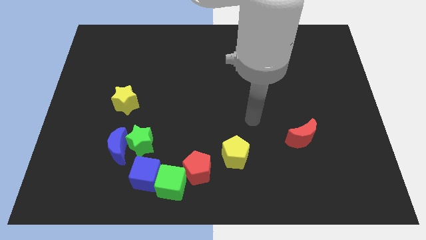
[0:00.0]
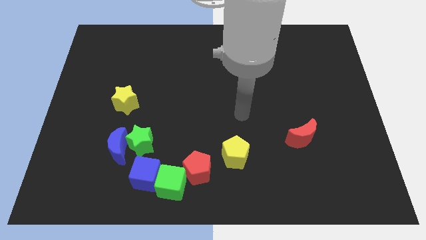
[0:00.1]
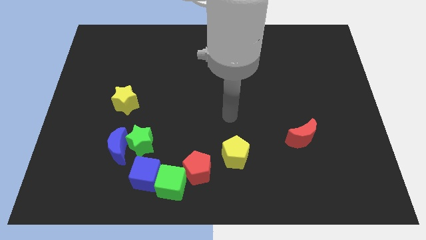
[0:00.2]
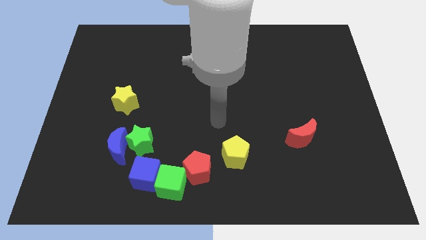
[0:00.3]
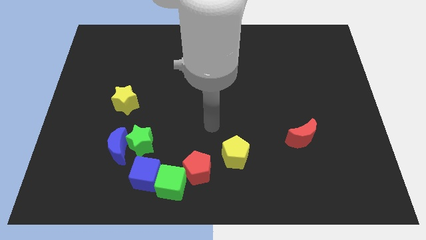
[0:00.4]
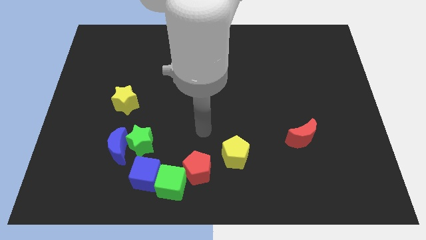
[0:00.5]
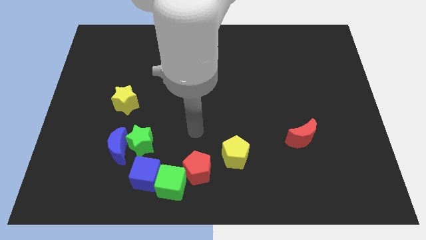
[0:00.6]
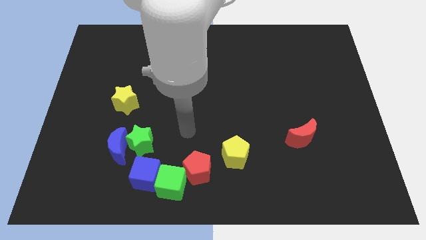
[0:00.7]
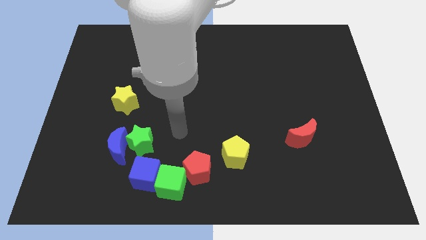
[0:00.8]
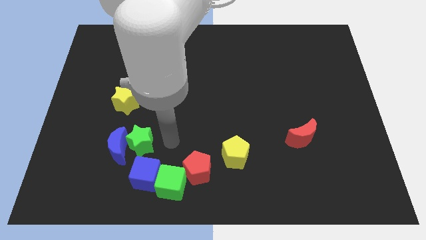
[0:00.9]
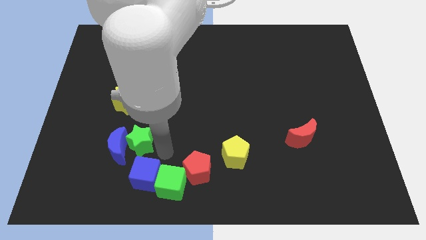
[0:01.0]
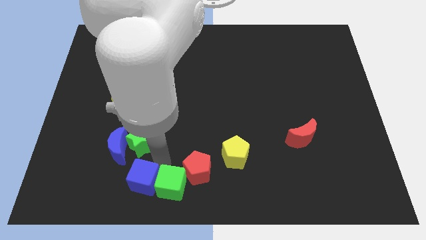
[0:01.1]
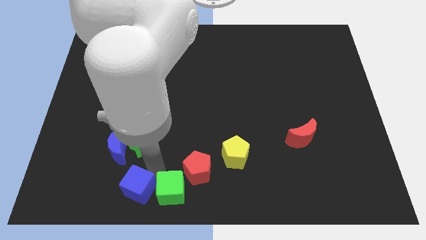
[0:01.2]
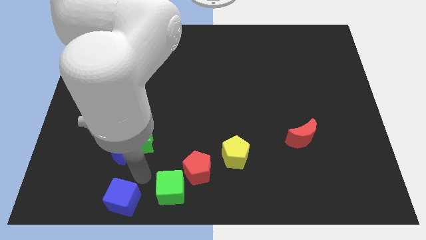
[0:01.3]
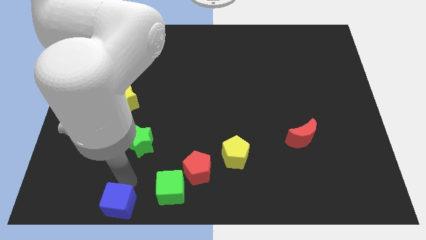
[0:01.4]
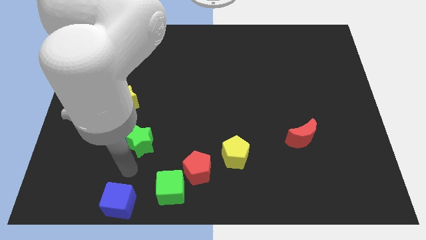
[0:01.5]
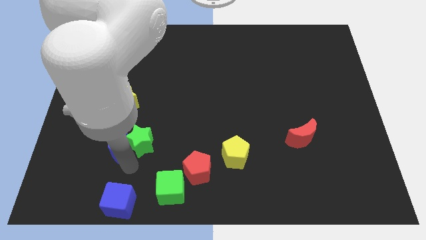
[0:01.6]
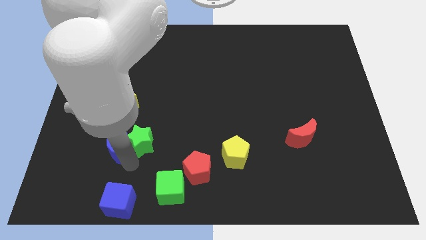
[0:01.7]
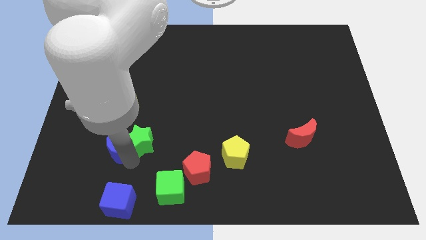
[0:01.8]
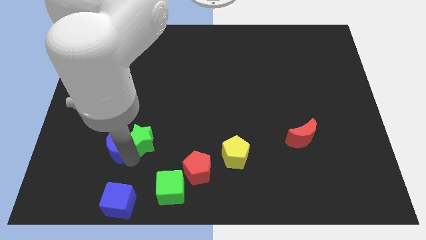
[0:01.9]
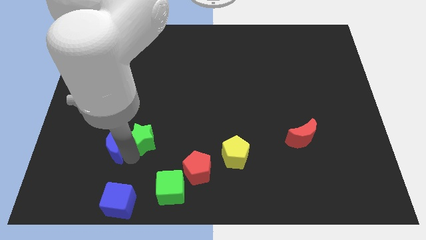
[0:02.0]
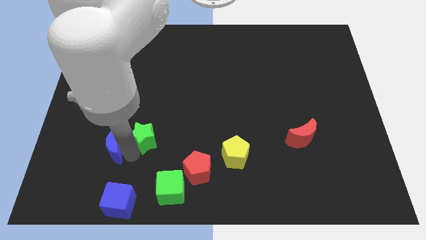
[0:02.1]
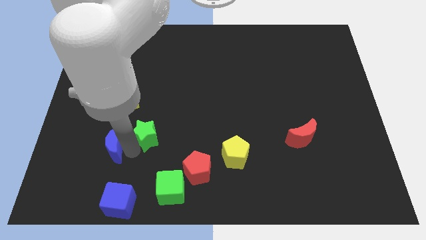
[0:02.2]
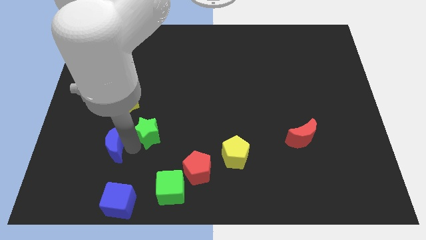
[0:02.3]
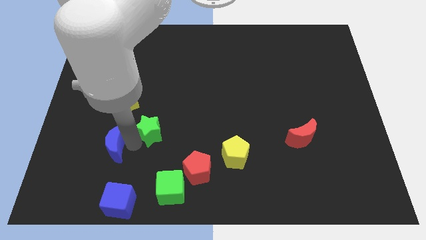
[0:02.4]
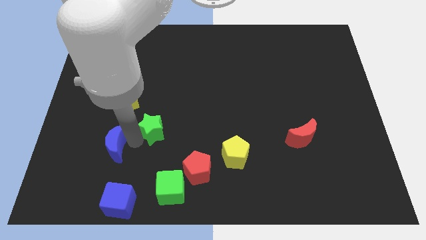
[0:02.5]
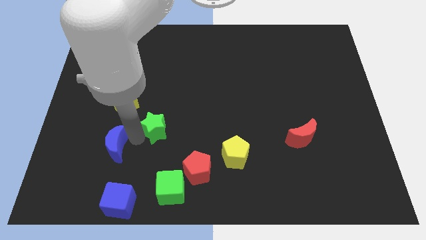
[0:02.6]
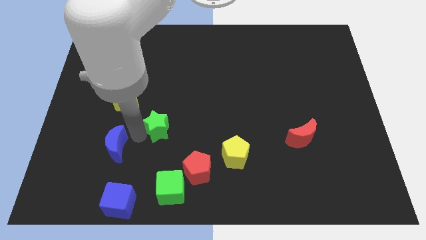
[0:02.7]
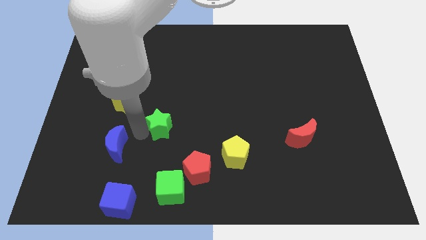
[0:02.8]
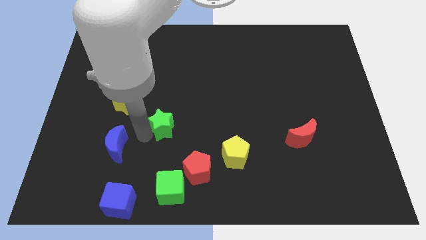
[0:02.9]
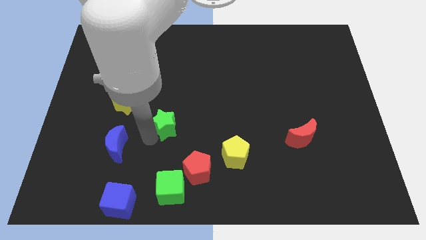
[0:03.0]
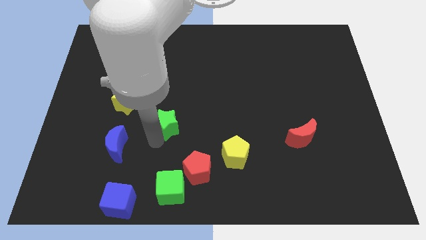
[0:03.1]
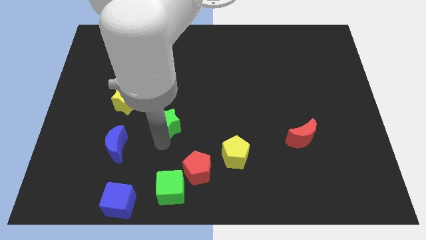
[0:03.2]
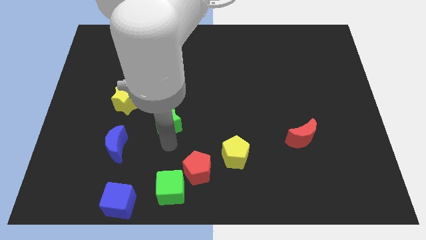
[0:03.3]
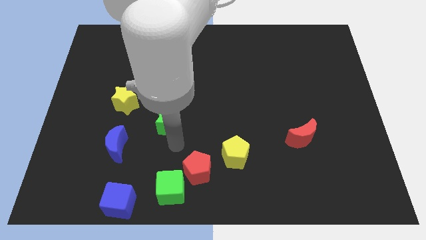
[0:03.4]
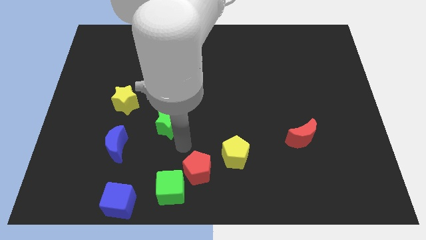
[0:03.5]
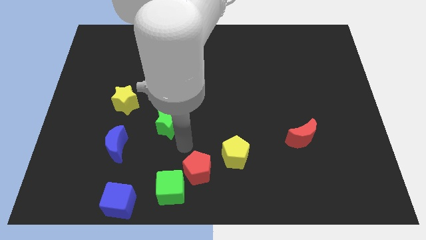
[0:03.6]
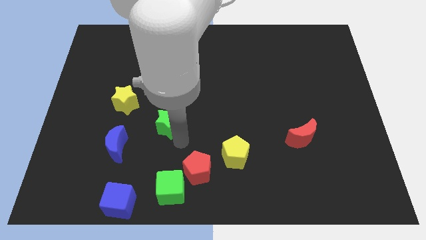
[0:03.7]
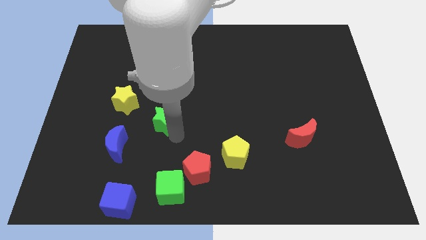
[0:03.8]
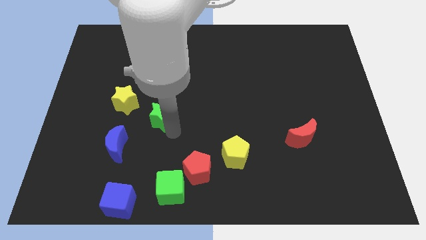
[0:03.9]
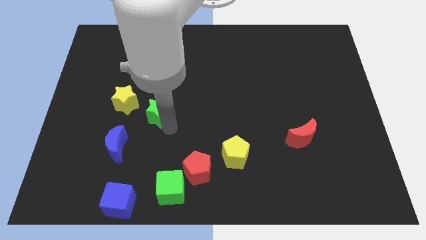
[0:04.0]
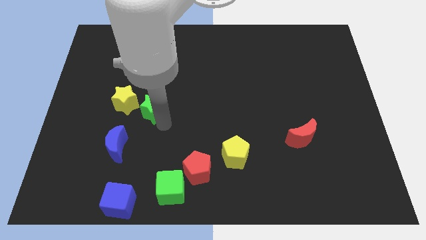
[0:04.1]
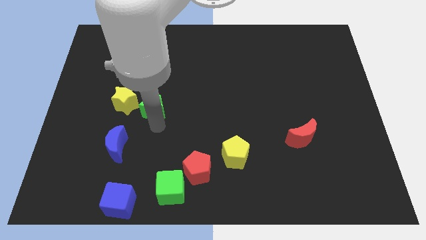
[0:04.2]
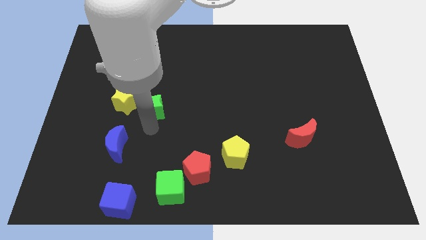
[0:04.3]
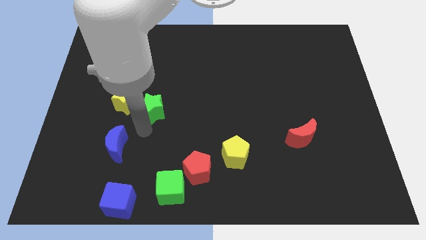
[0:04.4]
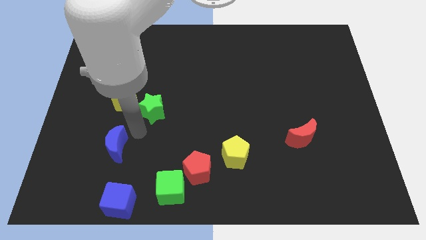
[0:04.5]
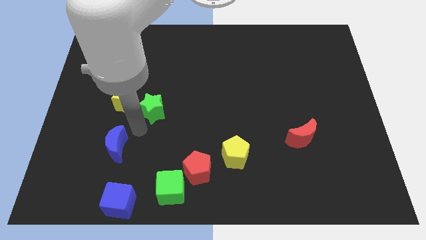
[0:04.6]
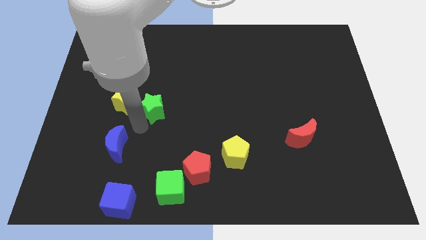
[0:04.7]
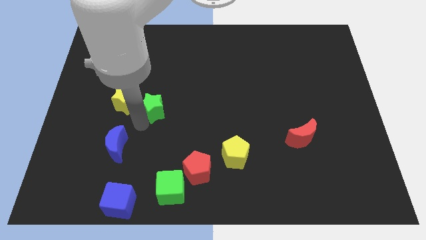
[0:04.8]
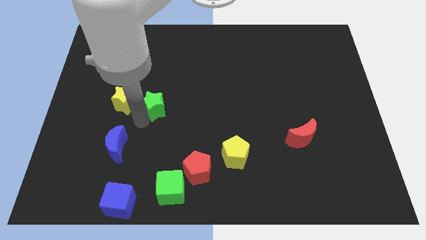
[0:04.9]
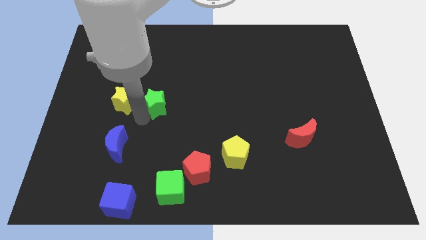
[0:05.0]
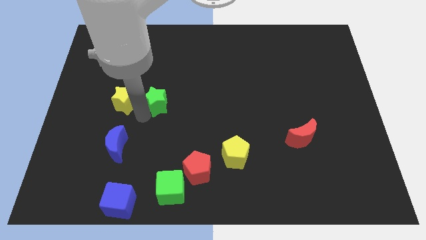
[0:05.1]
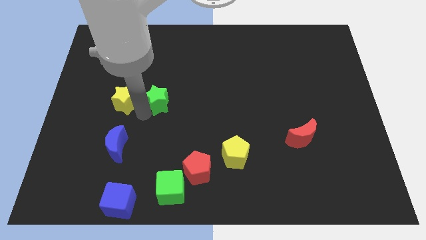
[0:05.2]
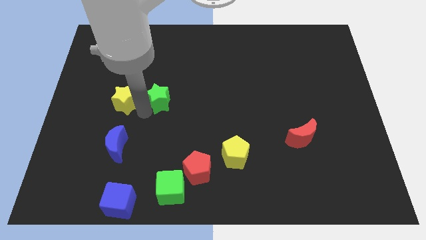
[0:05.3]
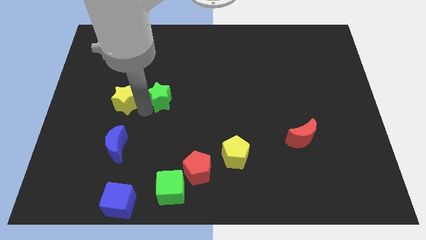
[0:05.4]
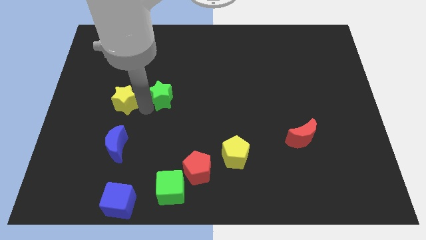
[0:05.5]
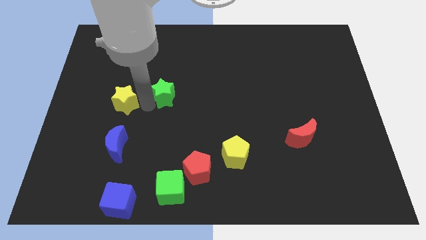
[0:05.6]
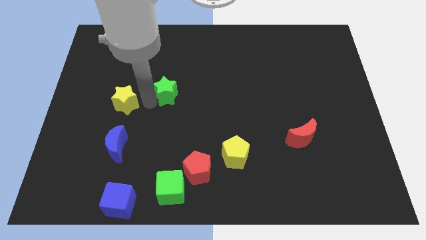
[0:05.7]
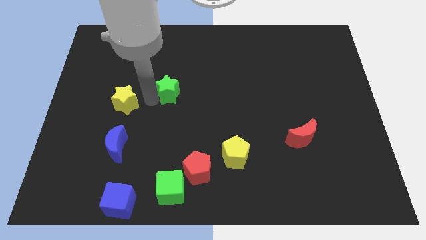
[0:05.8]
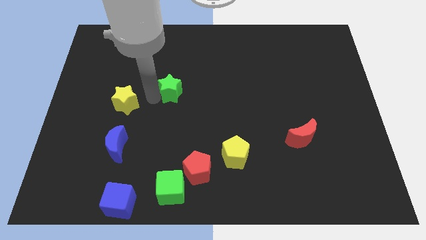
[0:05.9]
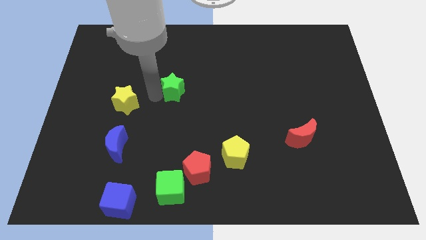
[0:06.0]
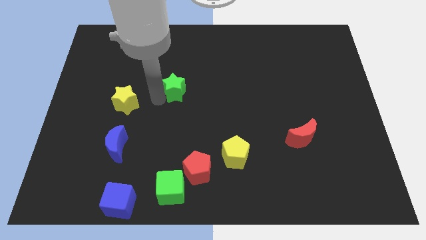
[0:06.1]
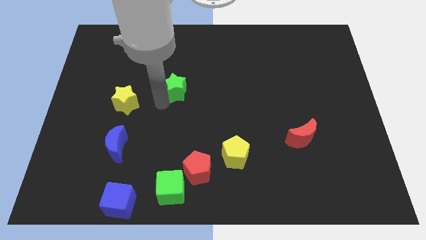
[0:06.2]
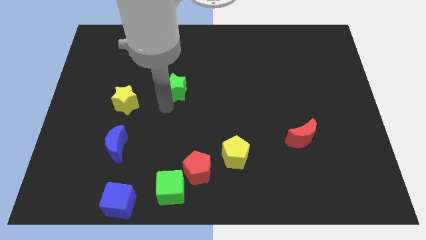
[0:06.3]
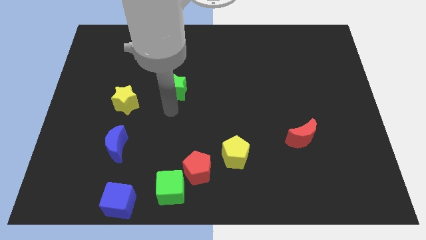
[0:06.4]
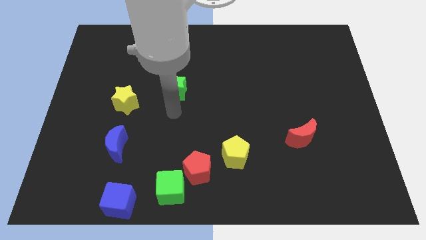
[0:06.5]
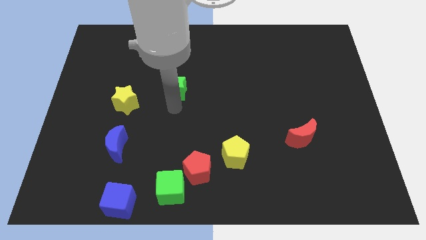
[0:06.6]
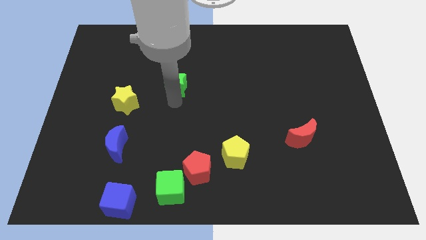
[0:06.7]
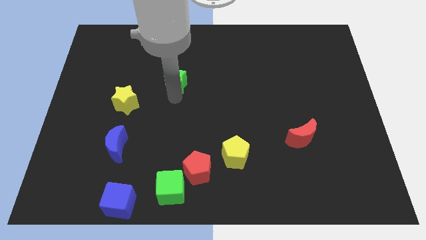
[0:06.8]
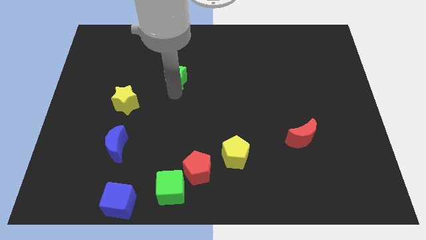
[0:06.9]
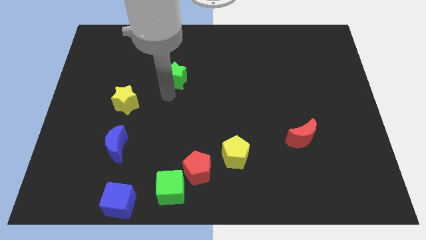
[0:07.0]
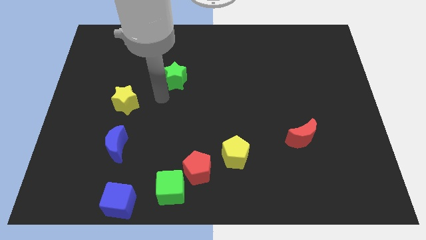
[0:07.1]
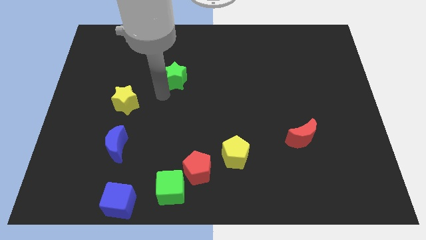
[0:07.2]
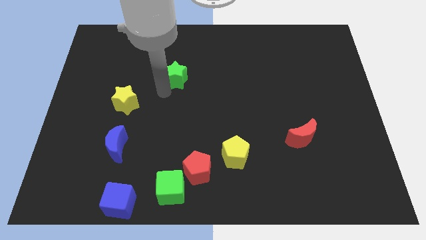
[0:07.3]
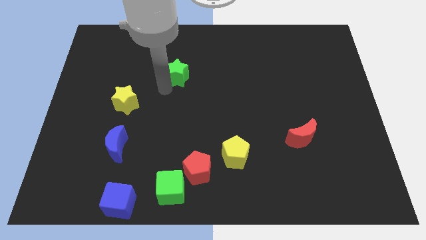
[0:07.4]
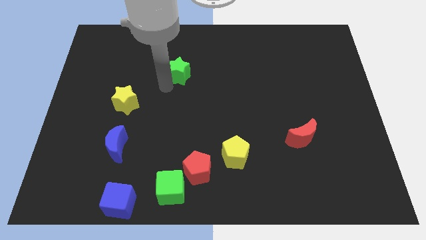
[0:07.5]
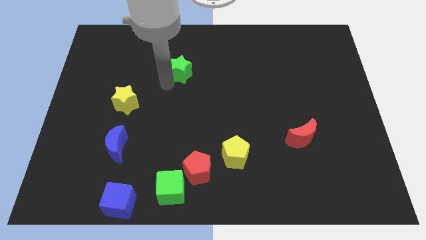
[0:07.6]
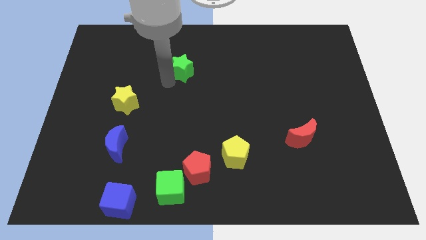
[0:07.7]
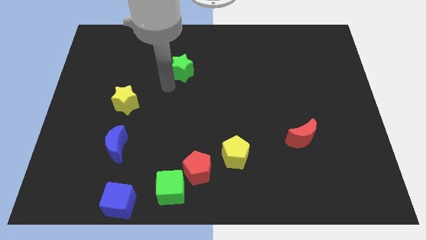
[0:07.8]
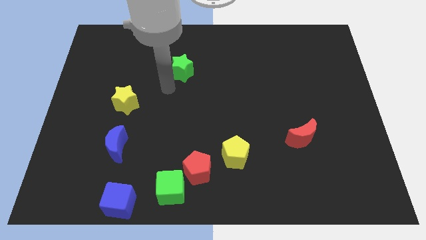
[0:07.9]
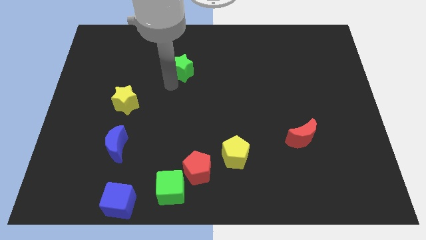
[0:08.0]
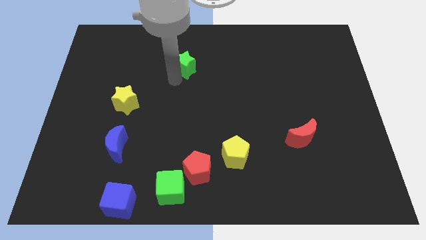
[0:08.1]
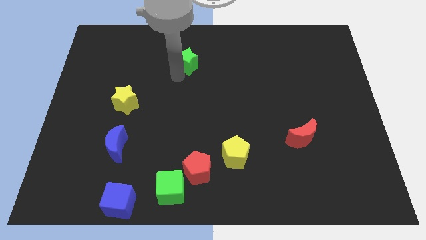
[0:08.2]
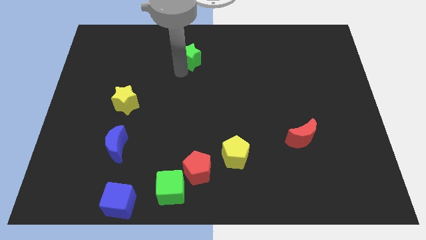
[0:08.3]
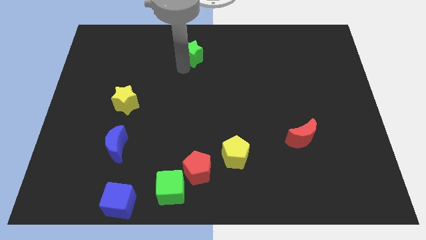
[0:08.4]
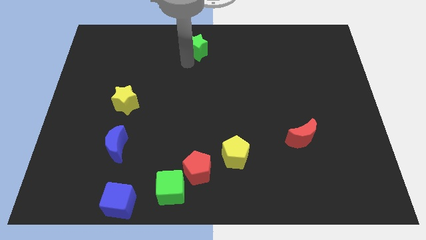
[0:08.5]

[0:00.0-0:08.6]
move the green star to the top side
